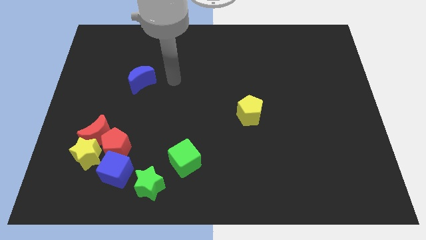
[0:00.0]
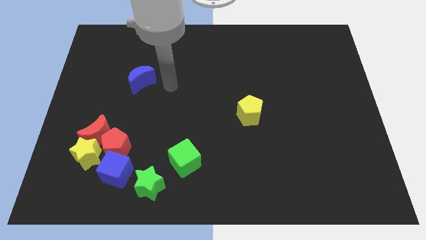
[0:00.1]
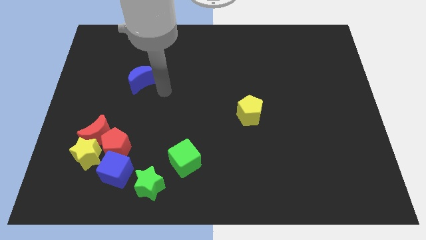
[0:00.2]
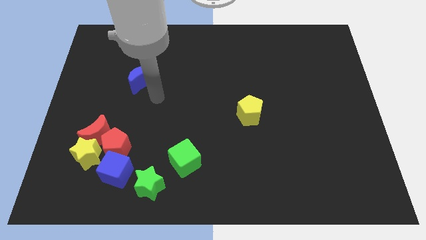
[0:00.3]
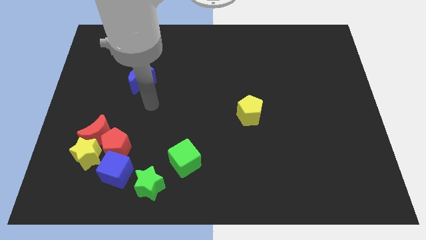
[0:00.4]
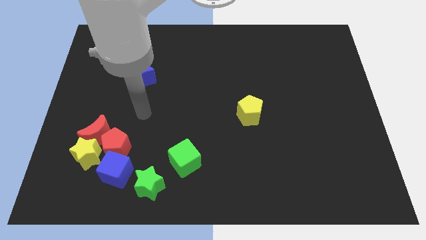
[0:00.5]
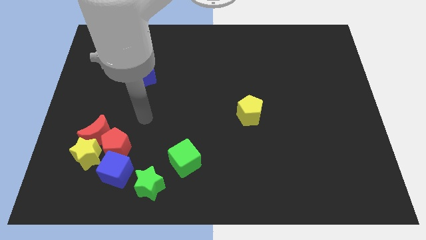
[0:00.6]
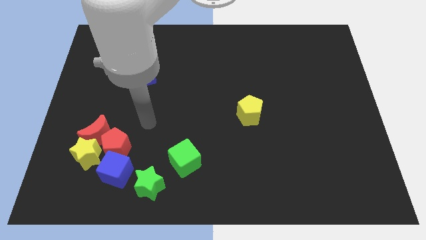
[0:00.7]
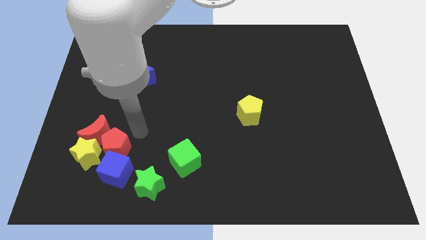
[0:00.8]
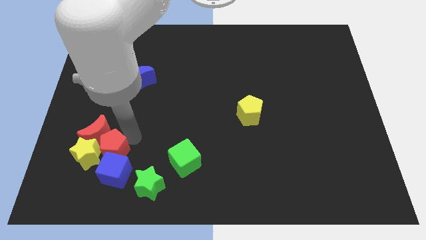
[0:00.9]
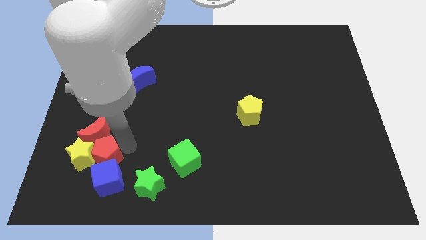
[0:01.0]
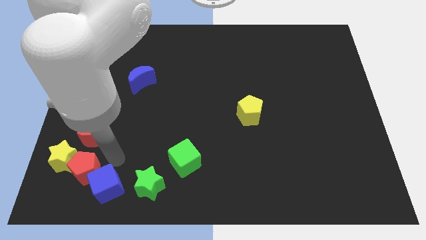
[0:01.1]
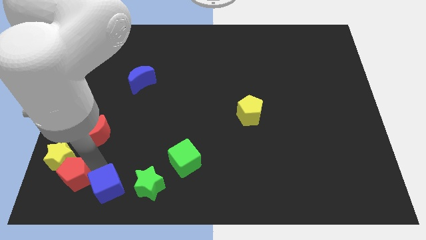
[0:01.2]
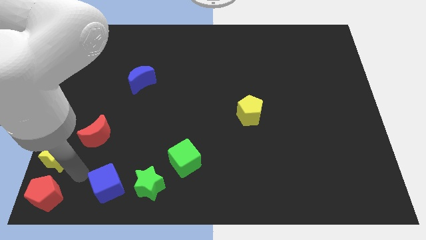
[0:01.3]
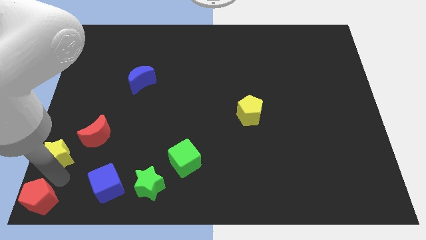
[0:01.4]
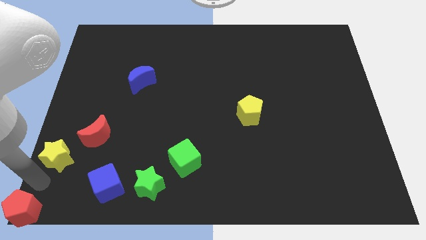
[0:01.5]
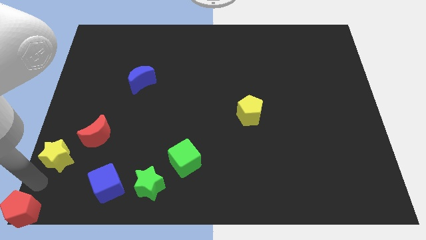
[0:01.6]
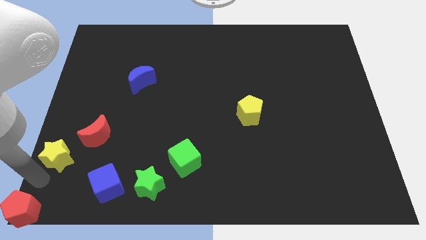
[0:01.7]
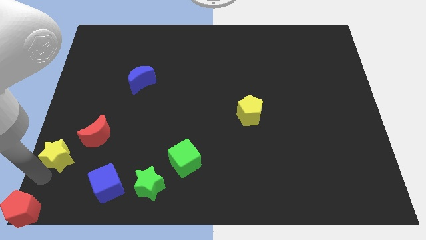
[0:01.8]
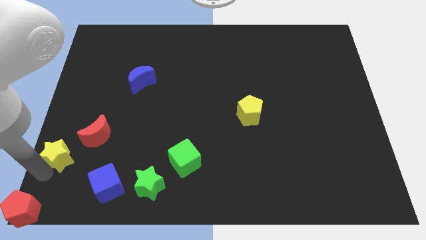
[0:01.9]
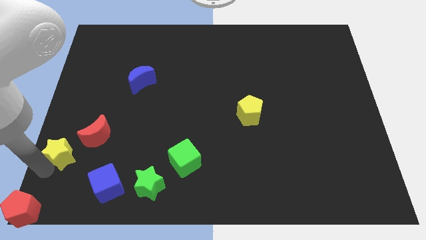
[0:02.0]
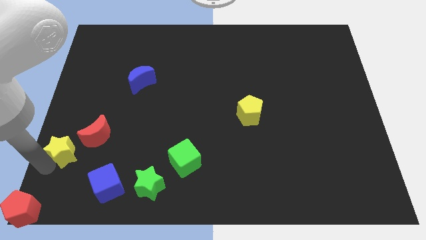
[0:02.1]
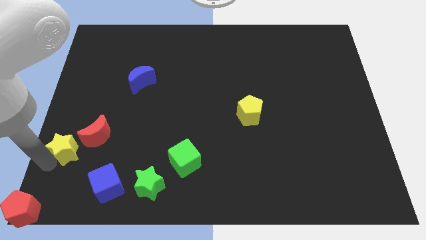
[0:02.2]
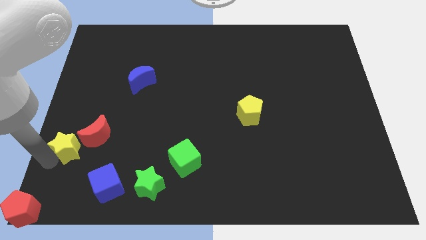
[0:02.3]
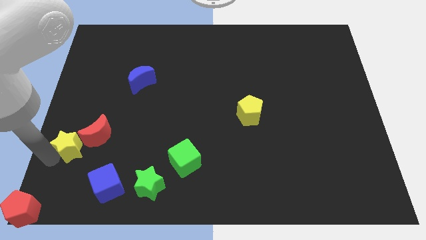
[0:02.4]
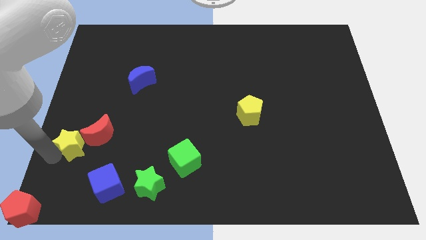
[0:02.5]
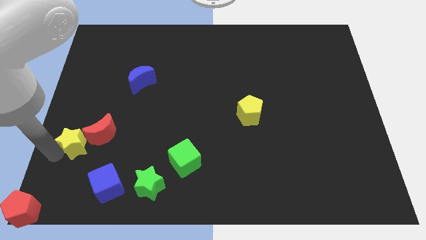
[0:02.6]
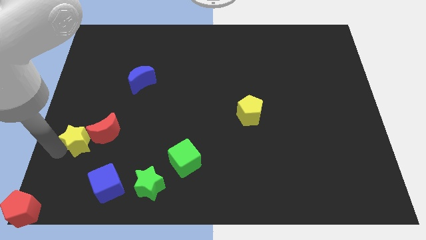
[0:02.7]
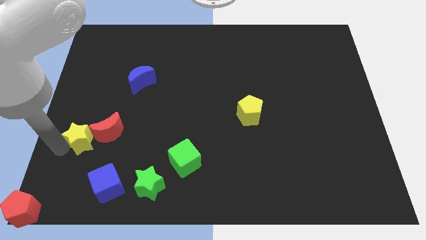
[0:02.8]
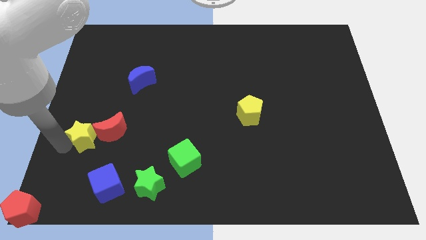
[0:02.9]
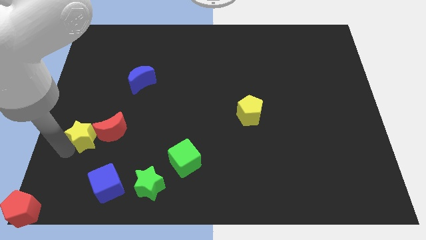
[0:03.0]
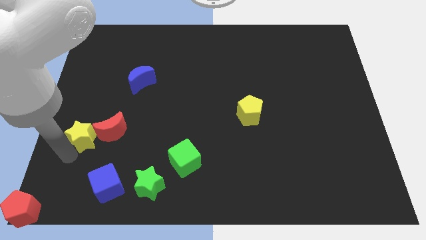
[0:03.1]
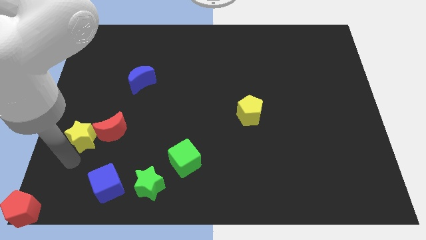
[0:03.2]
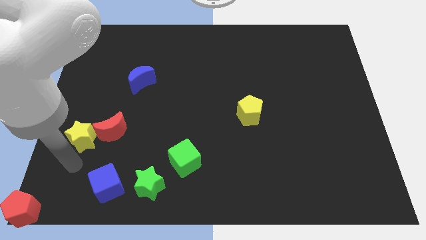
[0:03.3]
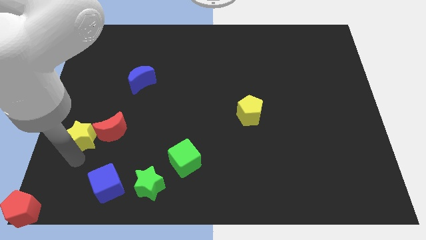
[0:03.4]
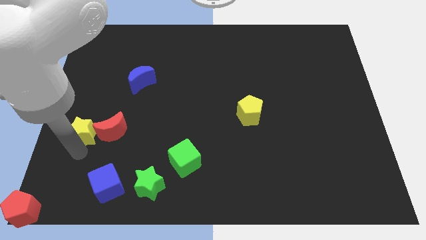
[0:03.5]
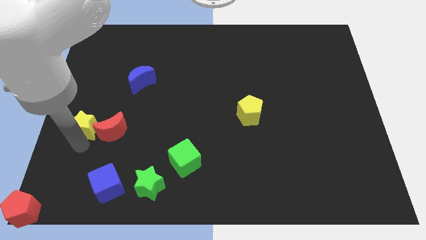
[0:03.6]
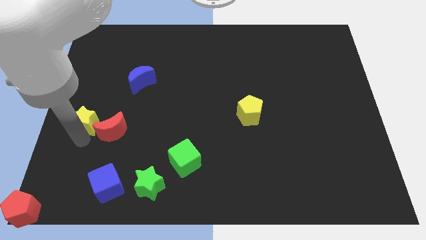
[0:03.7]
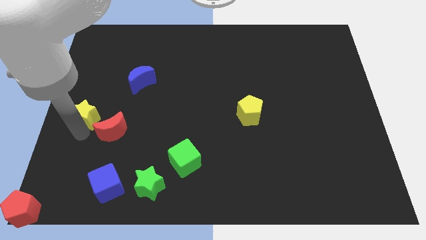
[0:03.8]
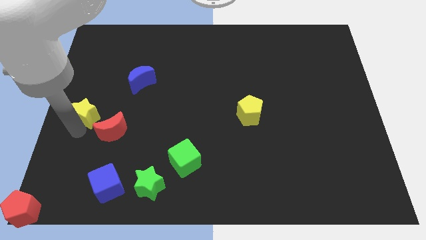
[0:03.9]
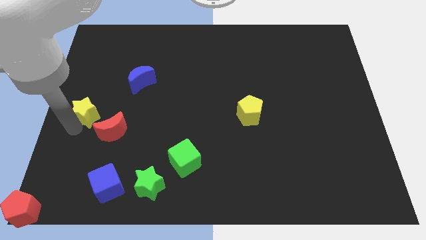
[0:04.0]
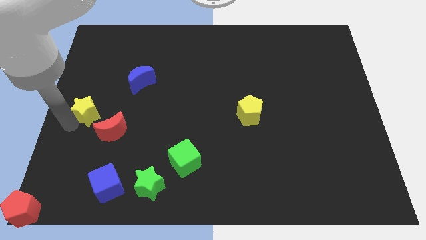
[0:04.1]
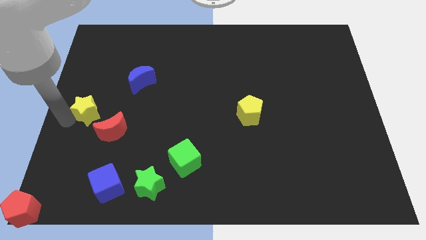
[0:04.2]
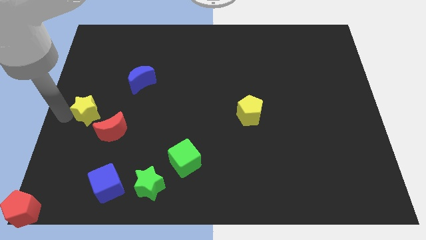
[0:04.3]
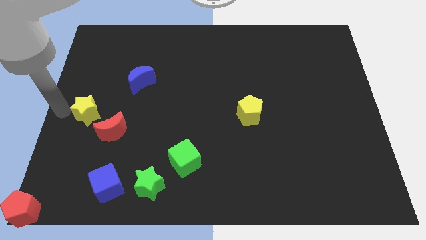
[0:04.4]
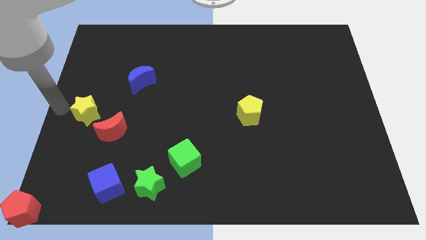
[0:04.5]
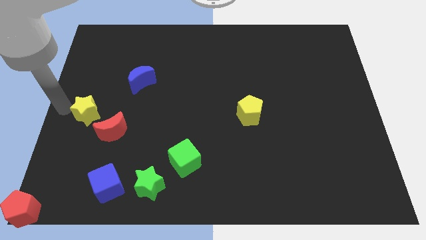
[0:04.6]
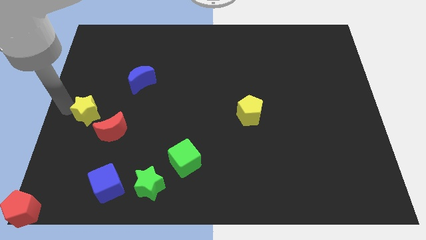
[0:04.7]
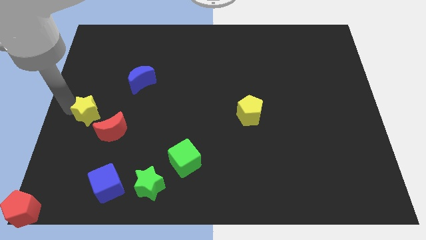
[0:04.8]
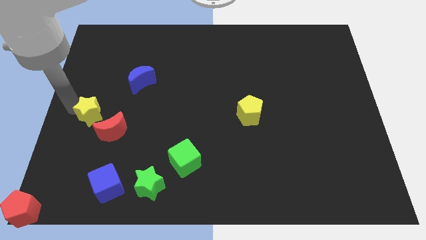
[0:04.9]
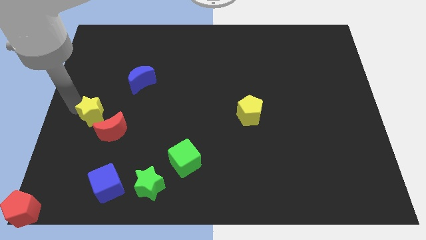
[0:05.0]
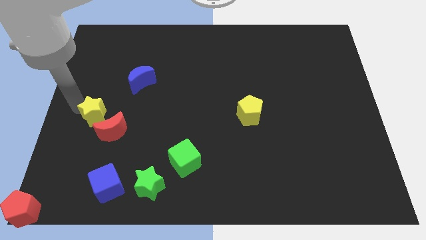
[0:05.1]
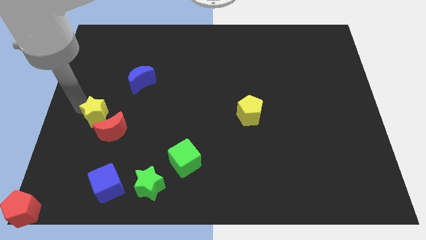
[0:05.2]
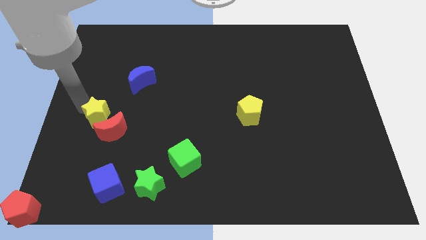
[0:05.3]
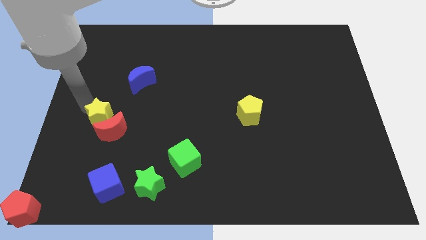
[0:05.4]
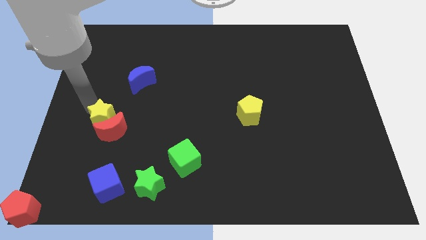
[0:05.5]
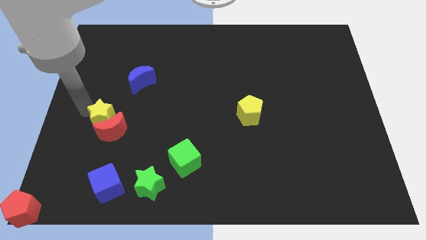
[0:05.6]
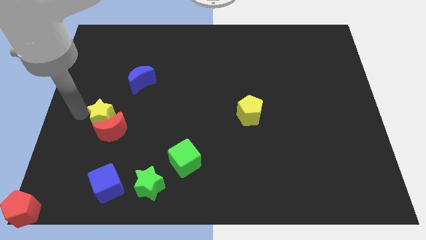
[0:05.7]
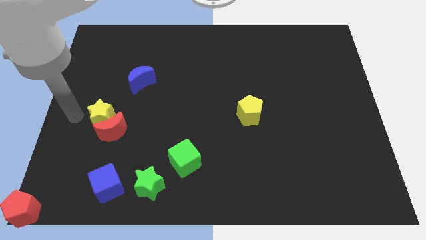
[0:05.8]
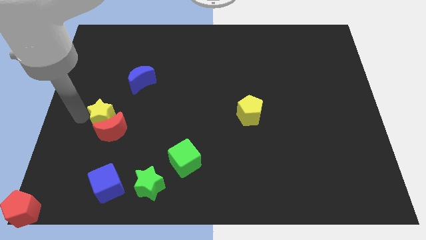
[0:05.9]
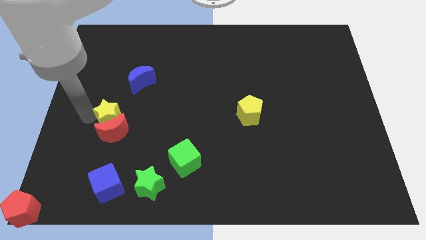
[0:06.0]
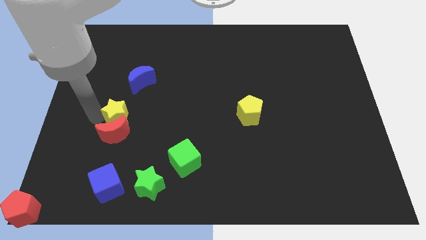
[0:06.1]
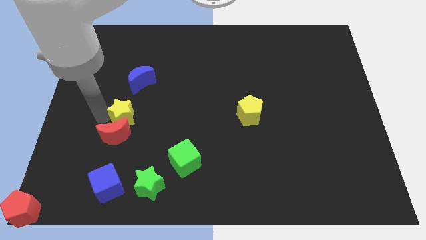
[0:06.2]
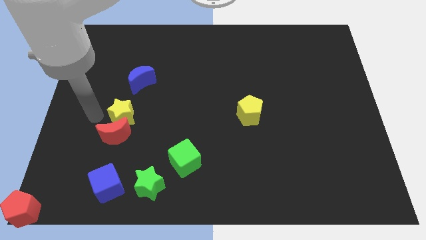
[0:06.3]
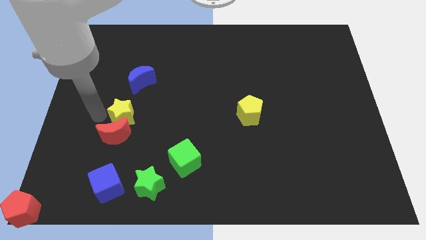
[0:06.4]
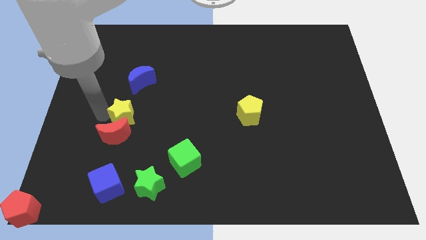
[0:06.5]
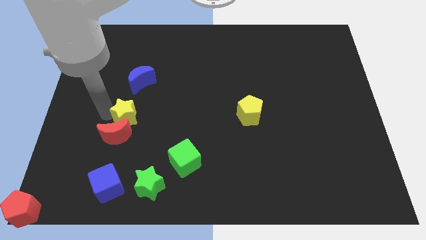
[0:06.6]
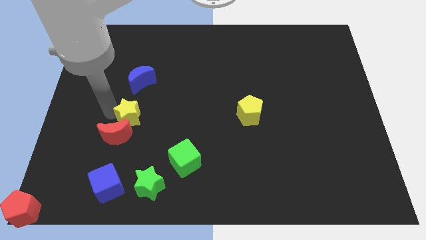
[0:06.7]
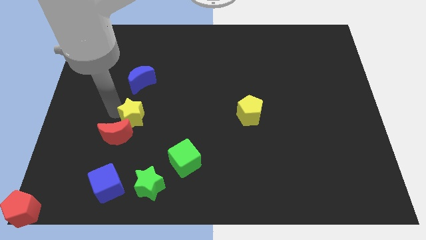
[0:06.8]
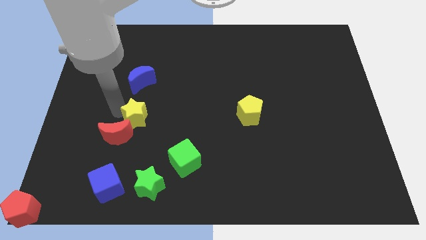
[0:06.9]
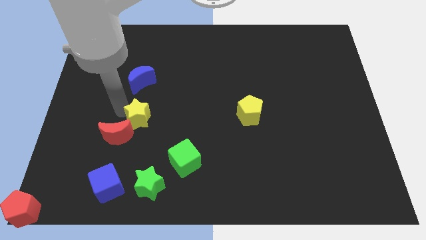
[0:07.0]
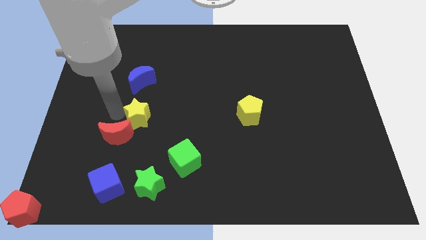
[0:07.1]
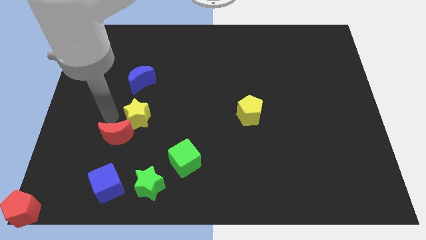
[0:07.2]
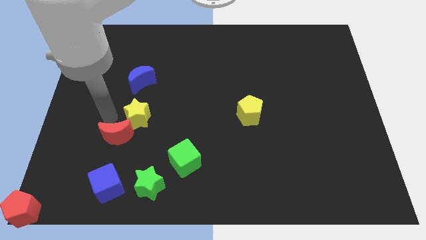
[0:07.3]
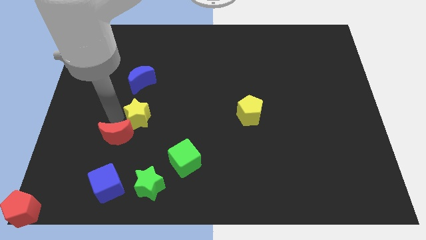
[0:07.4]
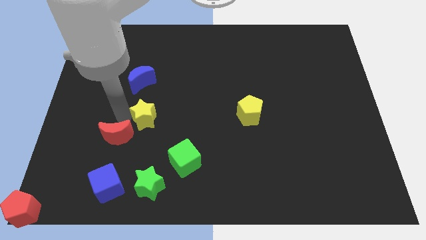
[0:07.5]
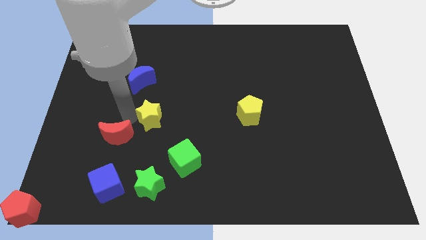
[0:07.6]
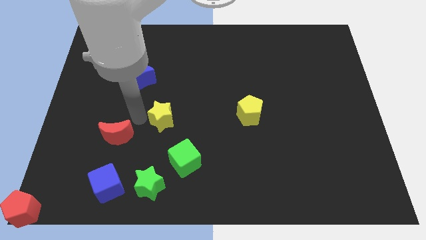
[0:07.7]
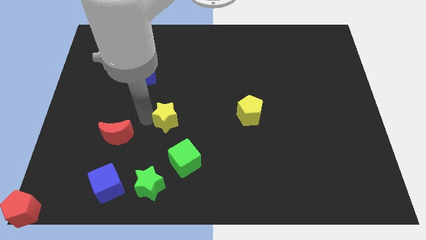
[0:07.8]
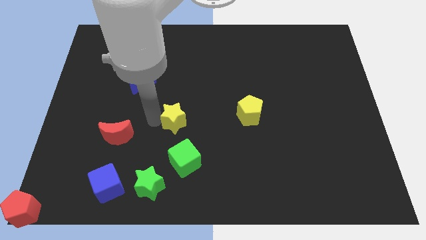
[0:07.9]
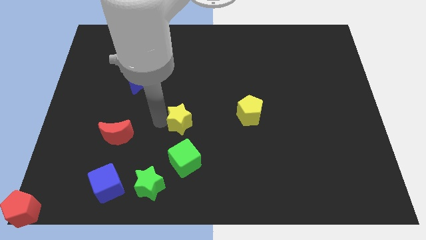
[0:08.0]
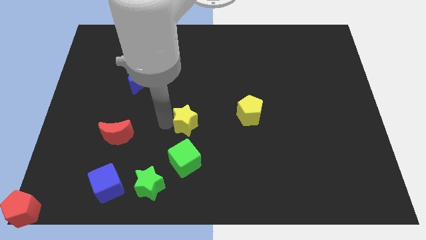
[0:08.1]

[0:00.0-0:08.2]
slide the yellow star just left of the yellow pentagon
